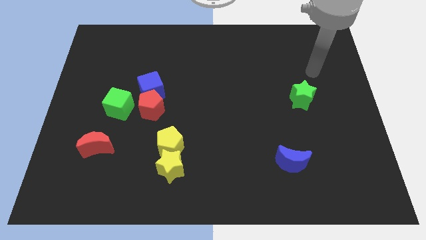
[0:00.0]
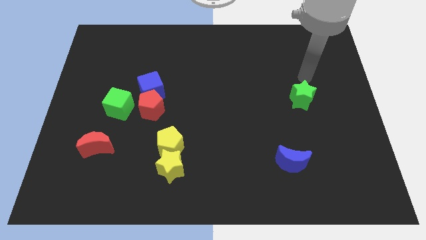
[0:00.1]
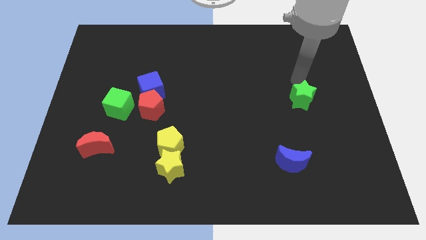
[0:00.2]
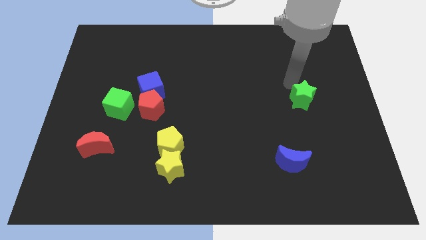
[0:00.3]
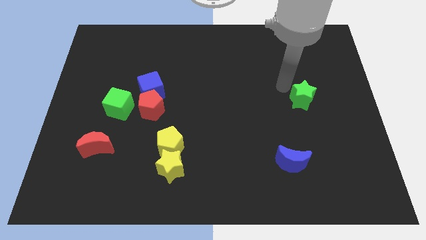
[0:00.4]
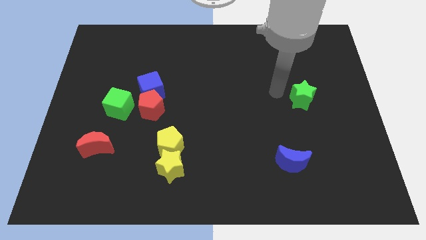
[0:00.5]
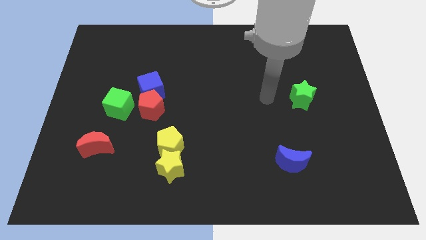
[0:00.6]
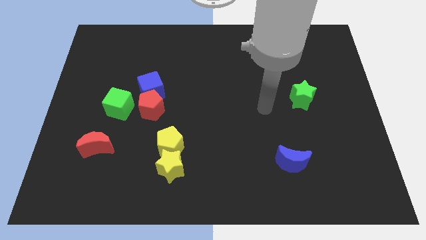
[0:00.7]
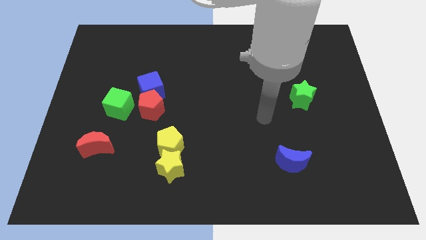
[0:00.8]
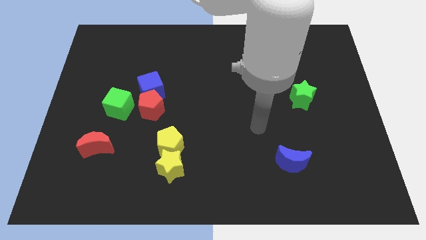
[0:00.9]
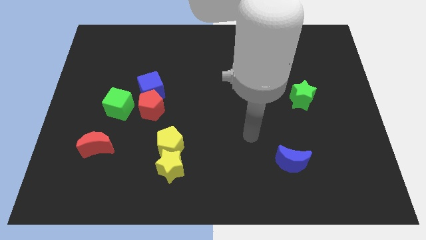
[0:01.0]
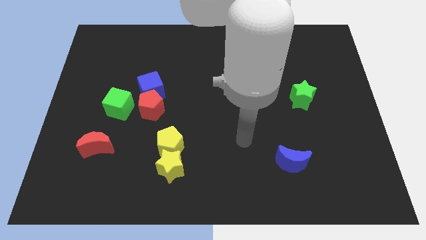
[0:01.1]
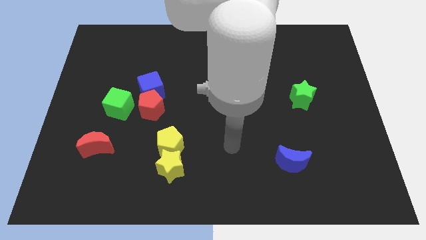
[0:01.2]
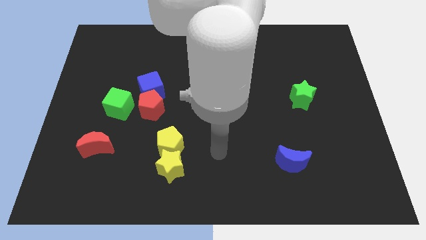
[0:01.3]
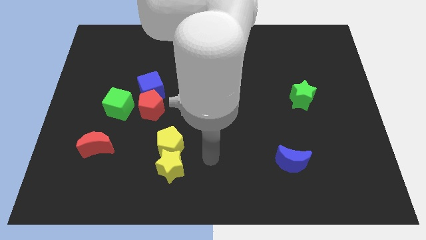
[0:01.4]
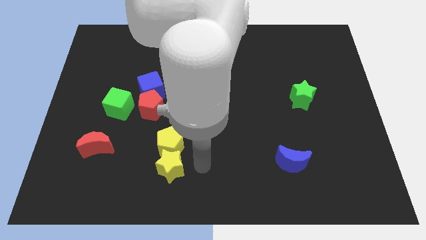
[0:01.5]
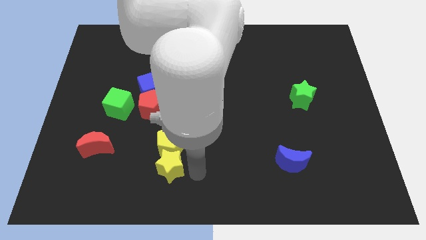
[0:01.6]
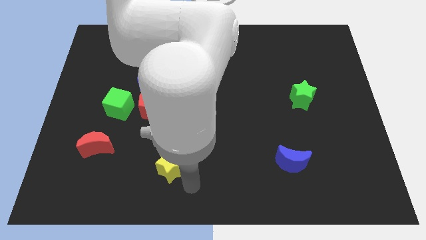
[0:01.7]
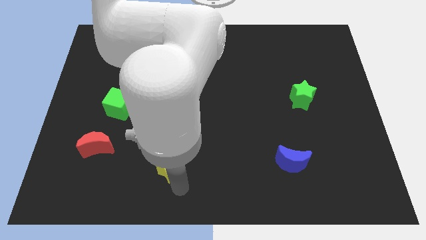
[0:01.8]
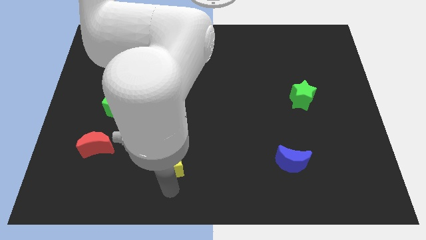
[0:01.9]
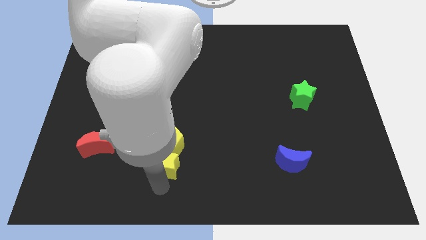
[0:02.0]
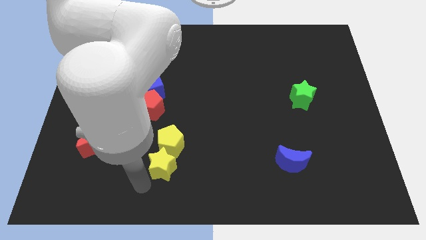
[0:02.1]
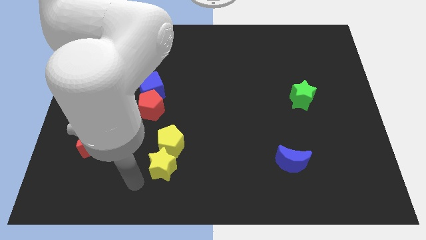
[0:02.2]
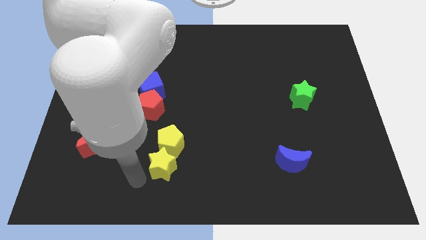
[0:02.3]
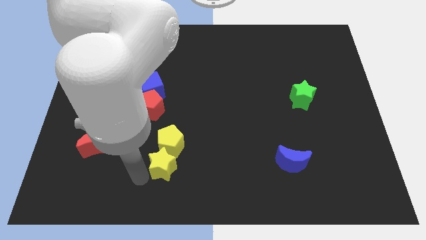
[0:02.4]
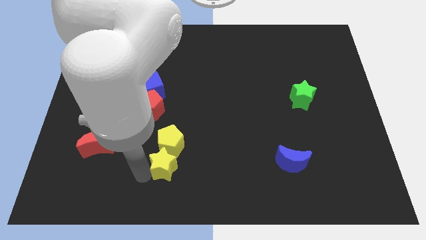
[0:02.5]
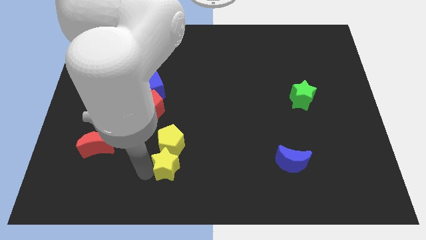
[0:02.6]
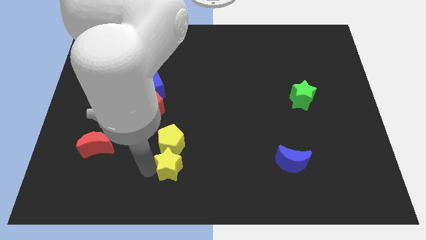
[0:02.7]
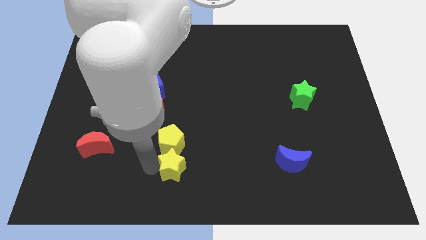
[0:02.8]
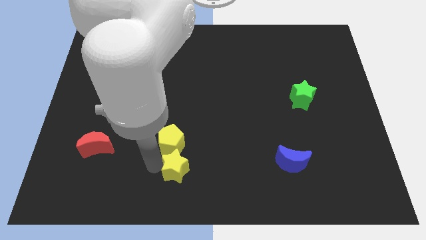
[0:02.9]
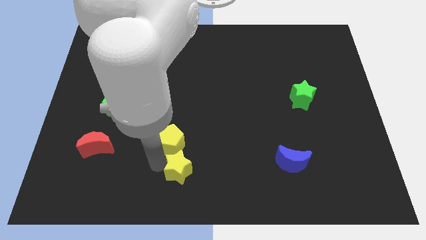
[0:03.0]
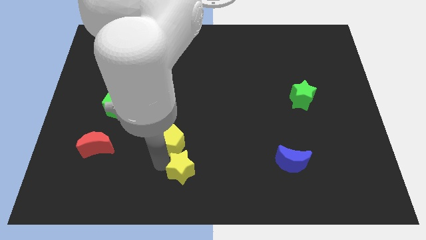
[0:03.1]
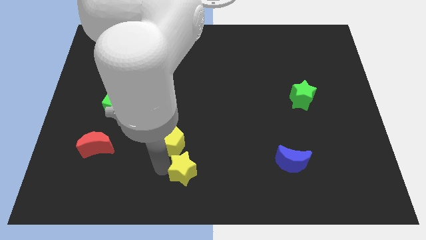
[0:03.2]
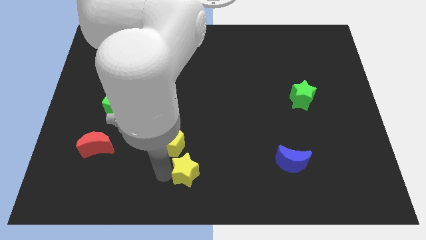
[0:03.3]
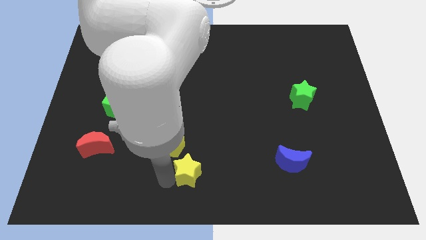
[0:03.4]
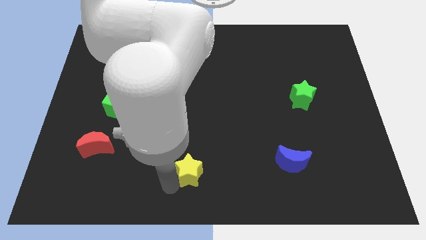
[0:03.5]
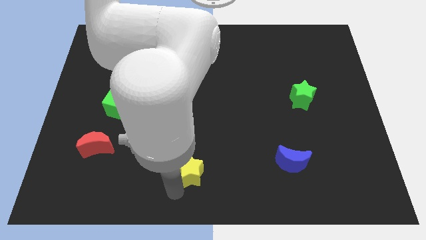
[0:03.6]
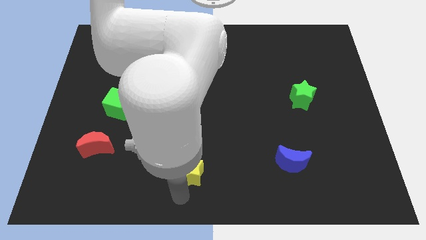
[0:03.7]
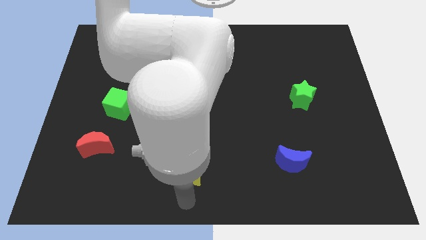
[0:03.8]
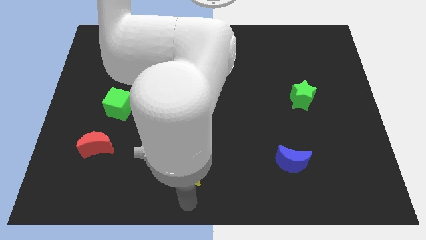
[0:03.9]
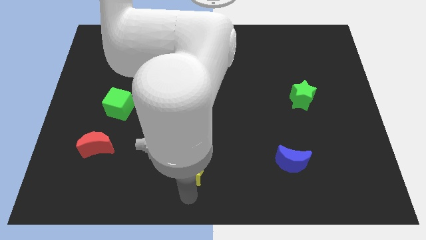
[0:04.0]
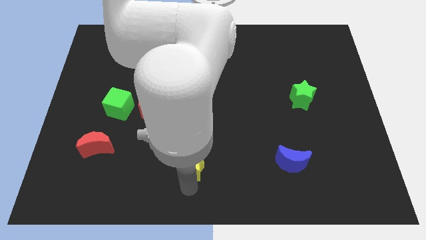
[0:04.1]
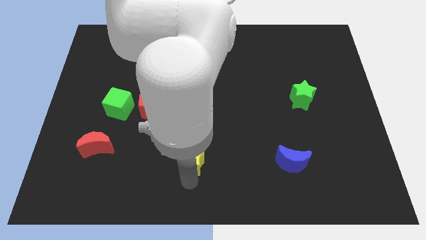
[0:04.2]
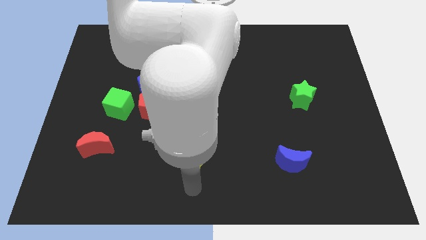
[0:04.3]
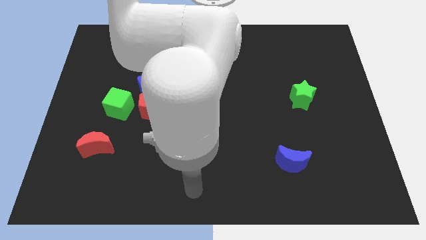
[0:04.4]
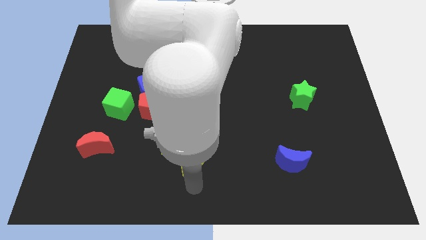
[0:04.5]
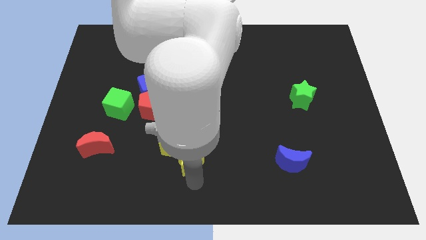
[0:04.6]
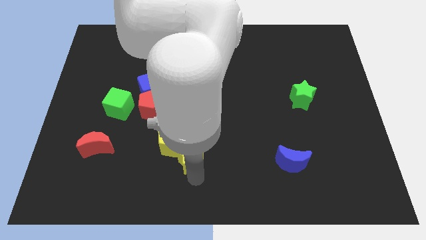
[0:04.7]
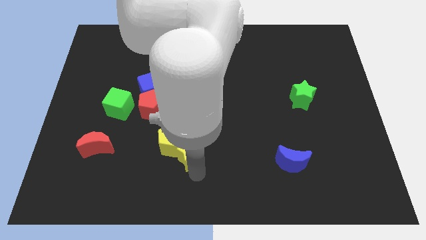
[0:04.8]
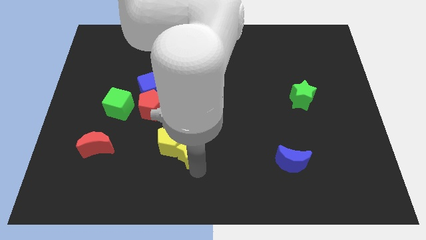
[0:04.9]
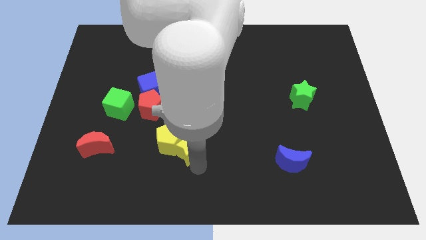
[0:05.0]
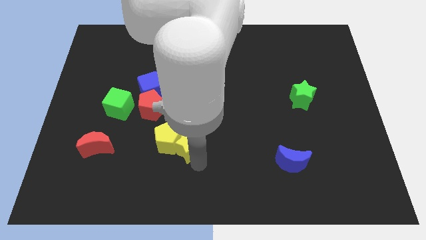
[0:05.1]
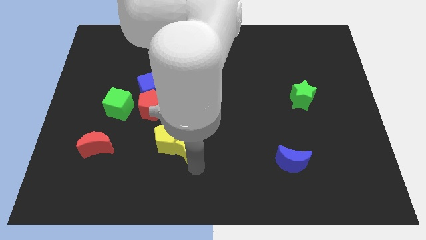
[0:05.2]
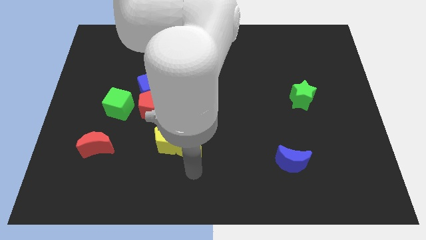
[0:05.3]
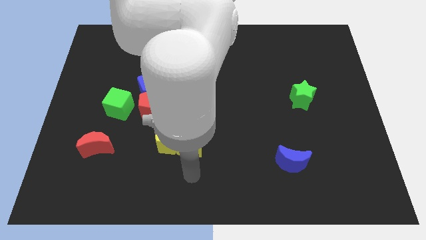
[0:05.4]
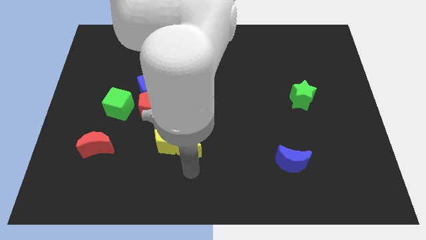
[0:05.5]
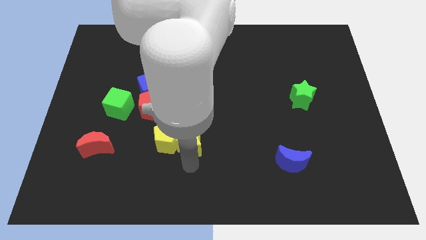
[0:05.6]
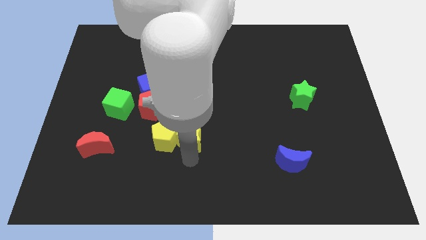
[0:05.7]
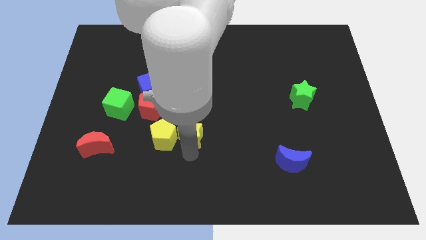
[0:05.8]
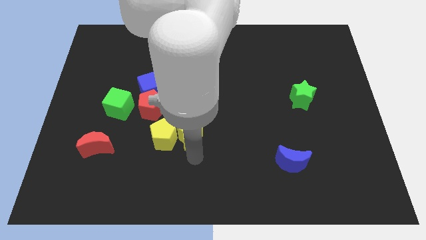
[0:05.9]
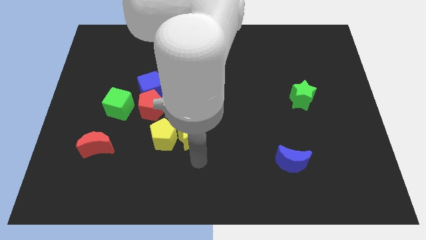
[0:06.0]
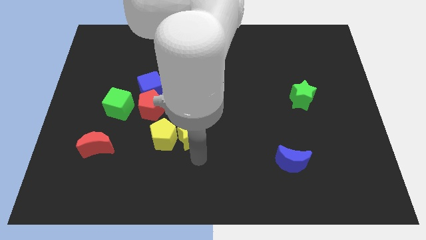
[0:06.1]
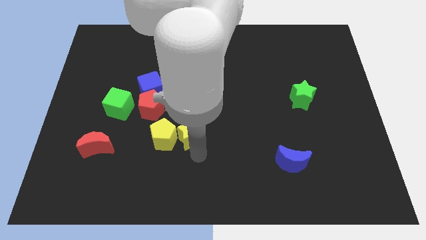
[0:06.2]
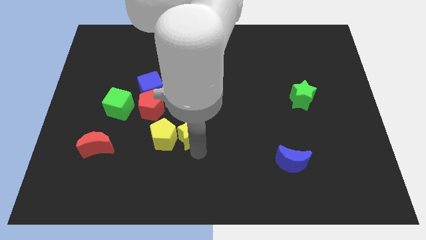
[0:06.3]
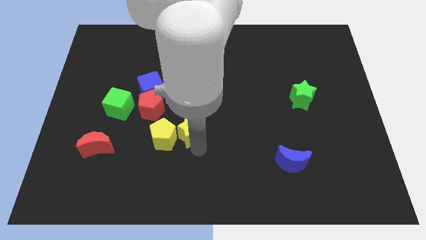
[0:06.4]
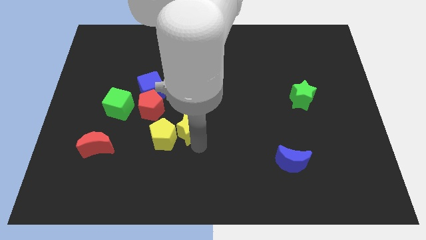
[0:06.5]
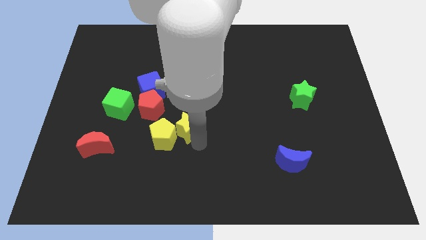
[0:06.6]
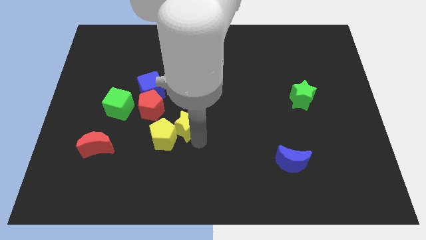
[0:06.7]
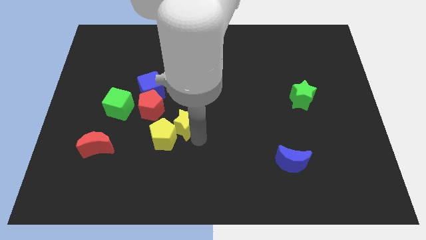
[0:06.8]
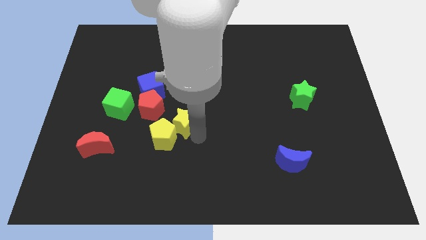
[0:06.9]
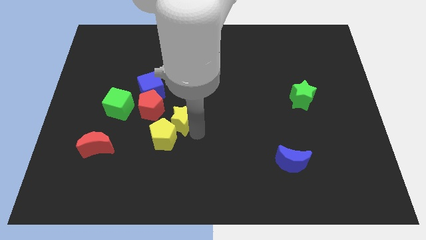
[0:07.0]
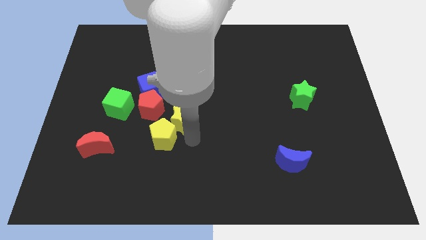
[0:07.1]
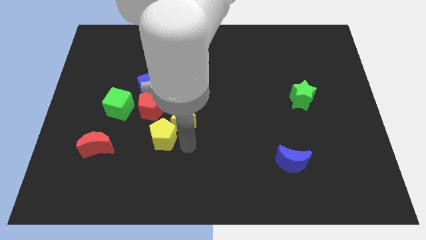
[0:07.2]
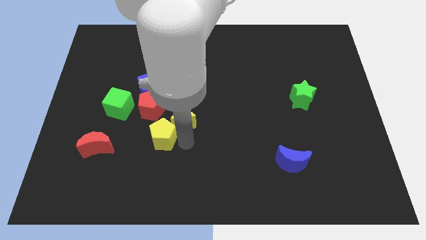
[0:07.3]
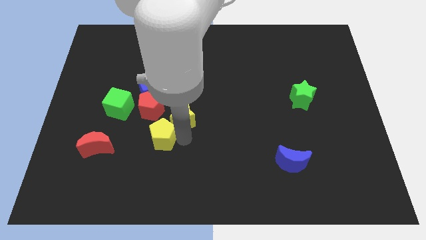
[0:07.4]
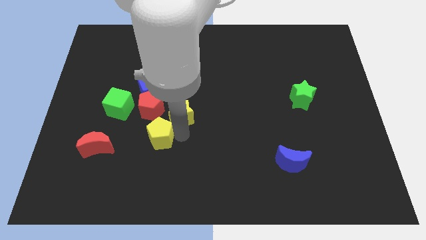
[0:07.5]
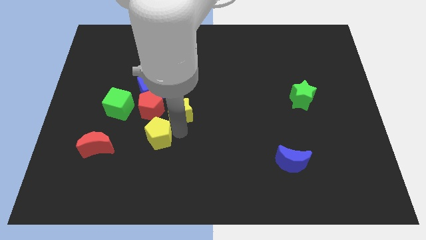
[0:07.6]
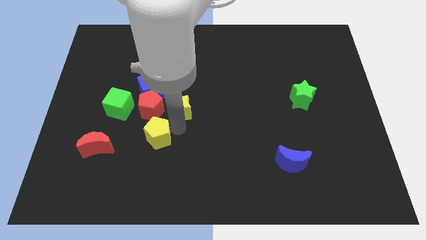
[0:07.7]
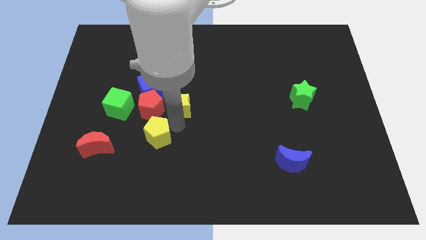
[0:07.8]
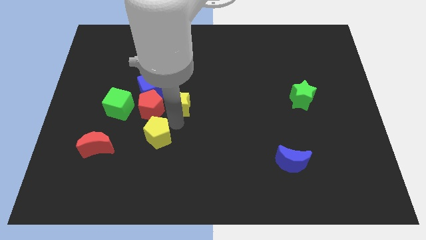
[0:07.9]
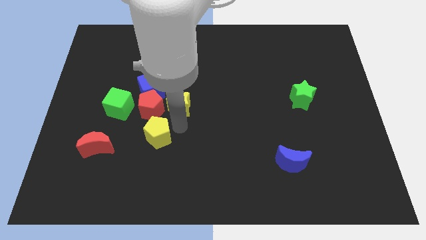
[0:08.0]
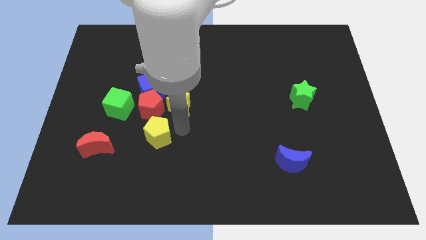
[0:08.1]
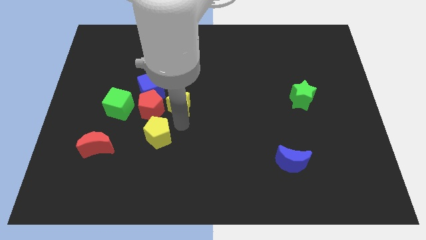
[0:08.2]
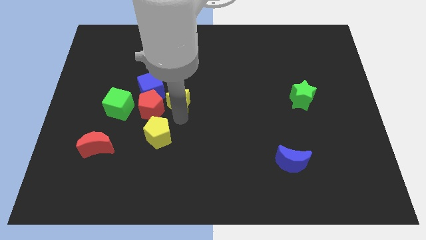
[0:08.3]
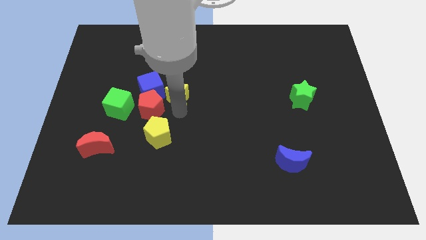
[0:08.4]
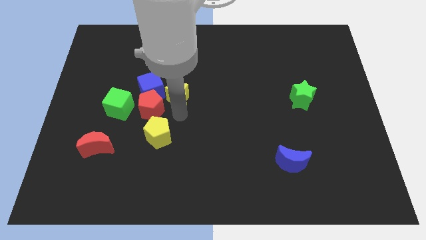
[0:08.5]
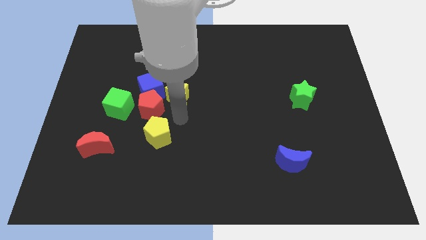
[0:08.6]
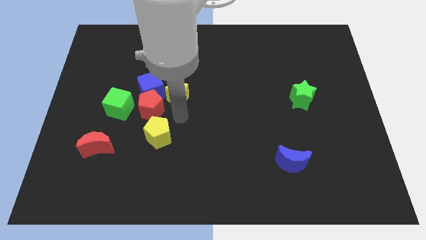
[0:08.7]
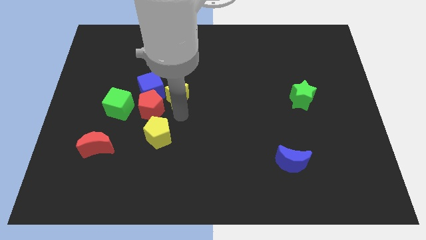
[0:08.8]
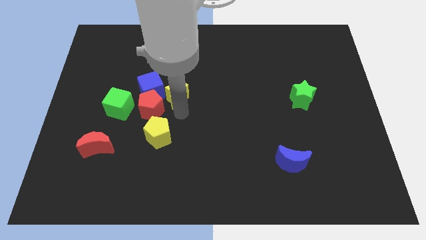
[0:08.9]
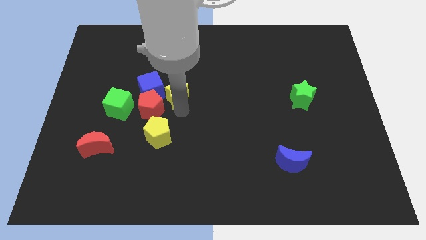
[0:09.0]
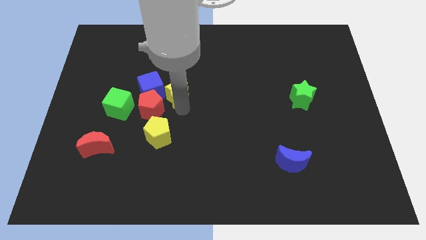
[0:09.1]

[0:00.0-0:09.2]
slide the yellow star upwards
